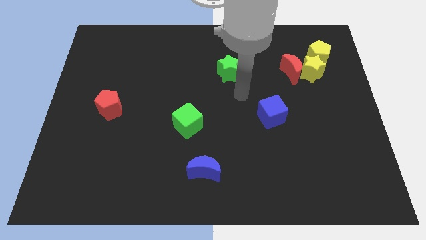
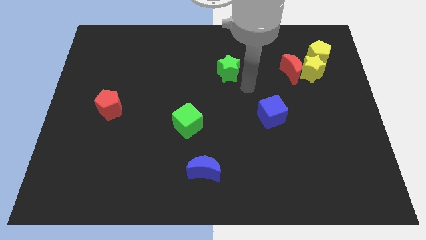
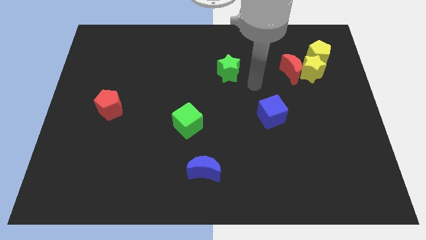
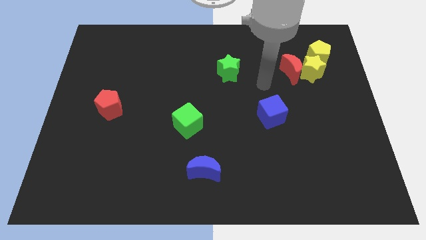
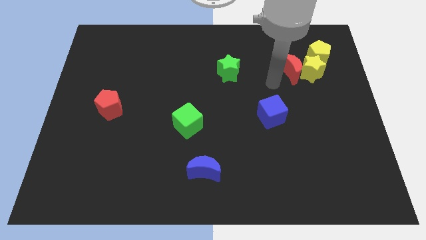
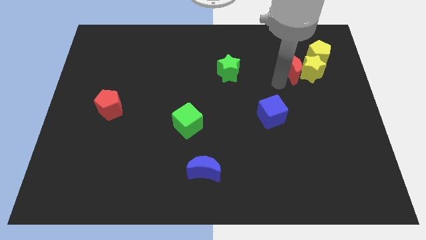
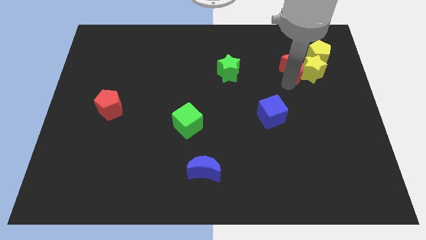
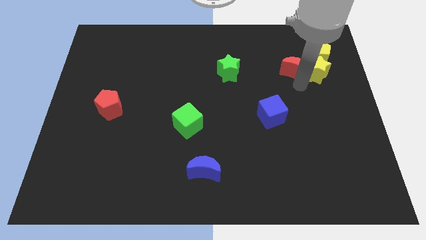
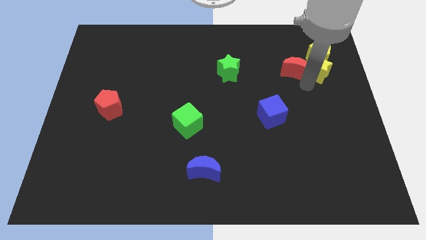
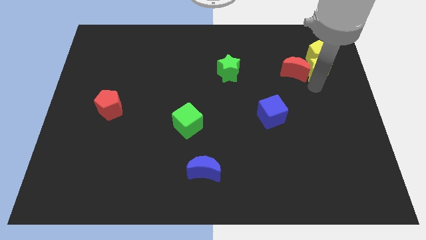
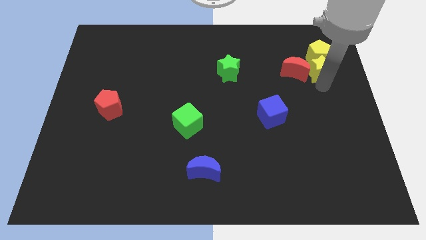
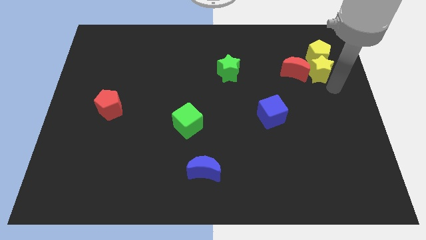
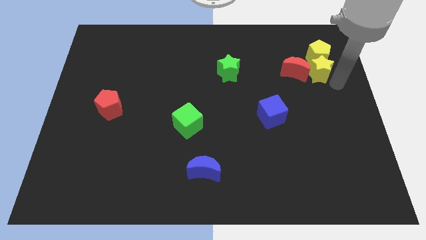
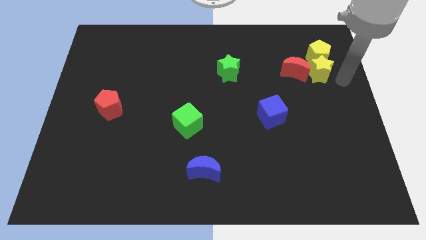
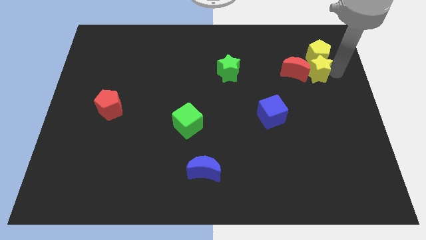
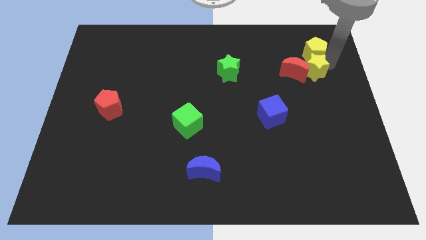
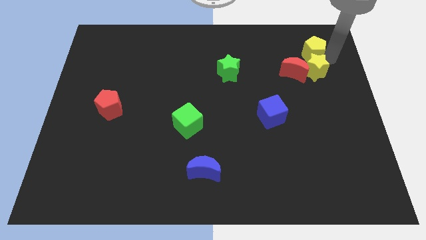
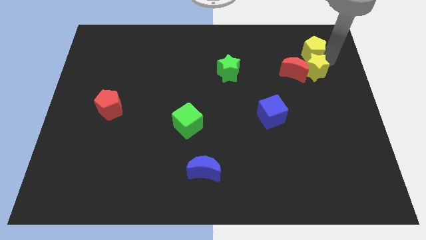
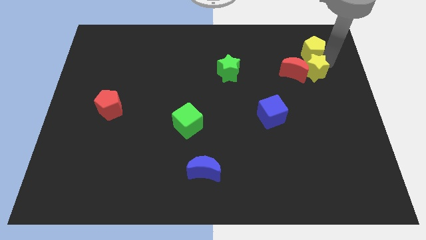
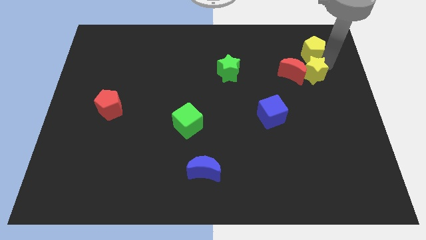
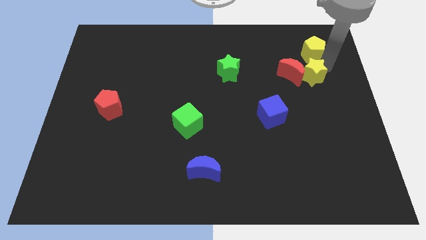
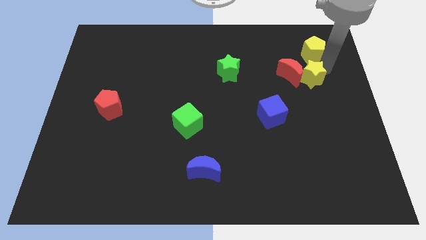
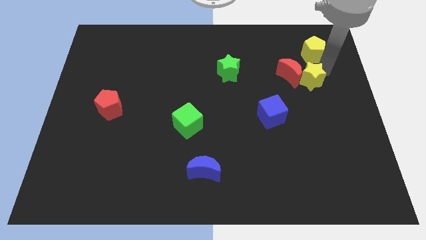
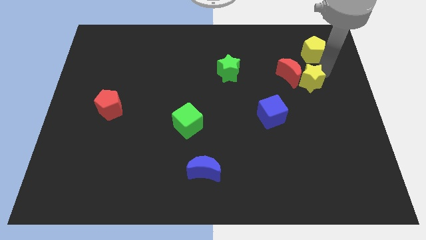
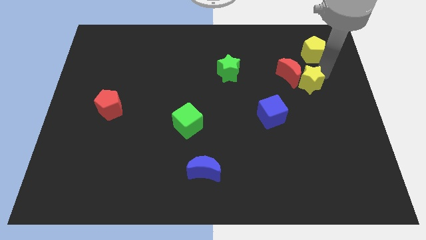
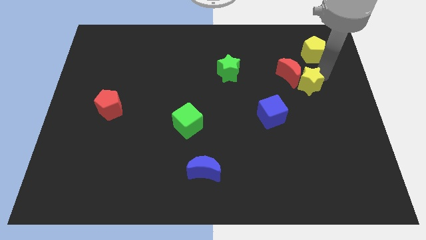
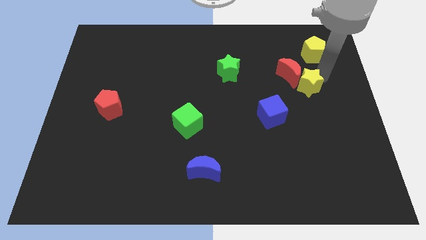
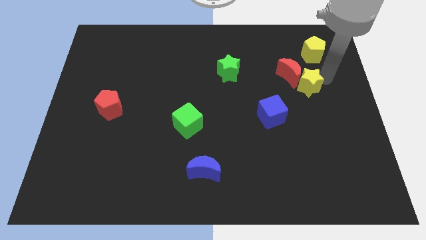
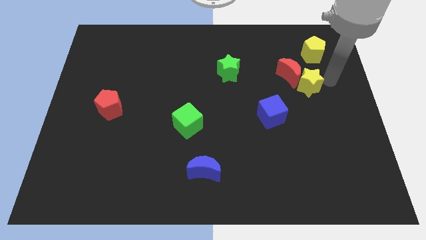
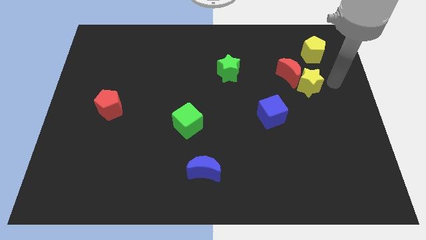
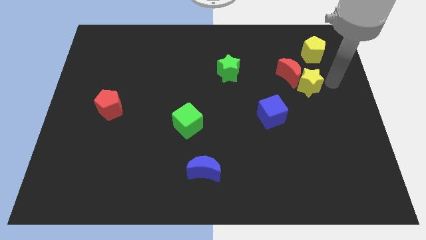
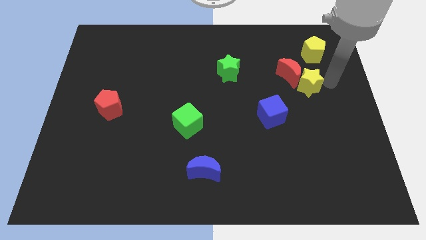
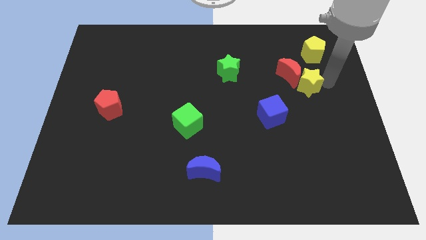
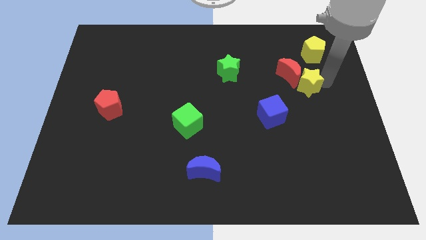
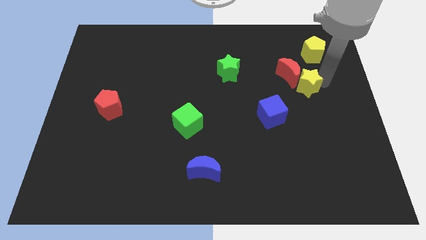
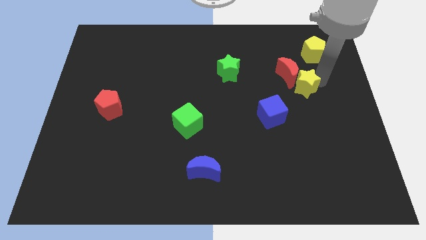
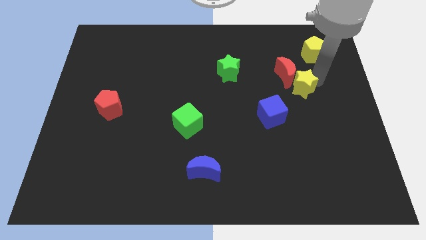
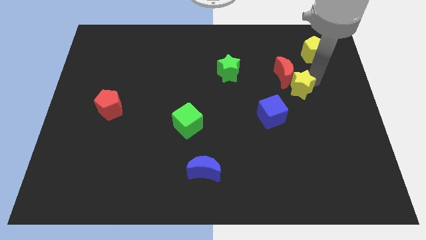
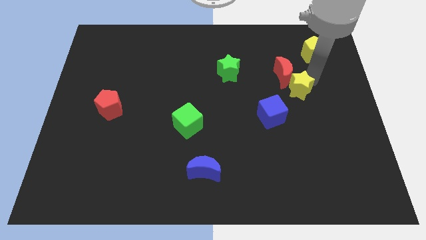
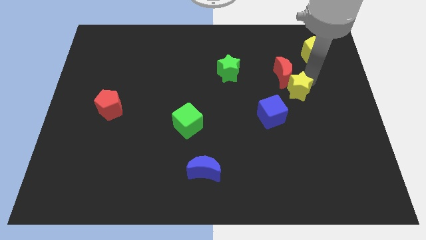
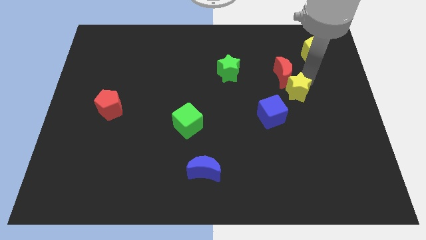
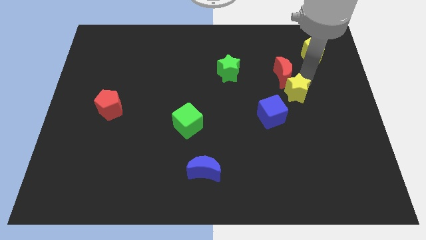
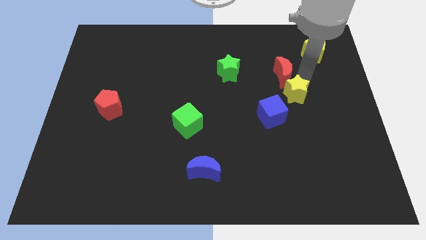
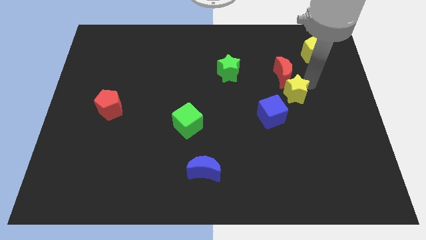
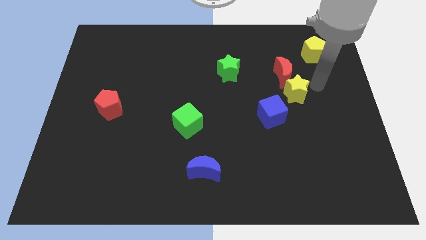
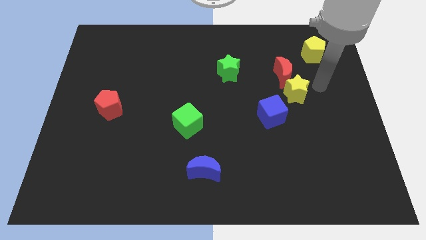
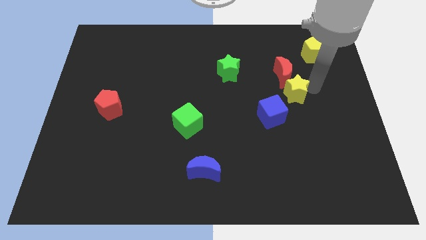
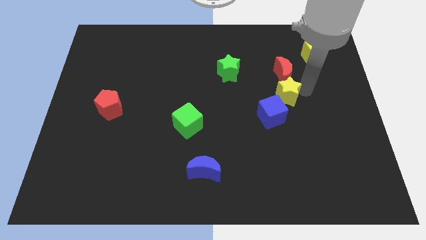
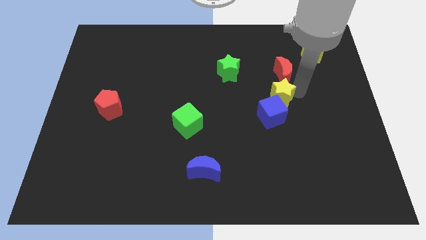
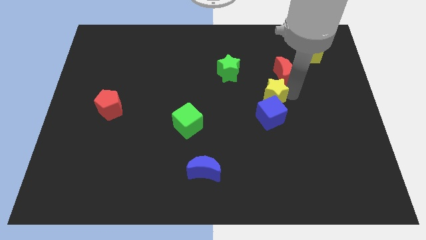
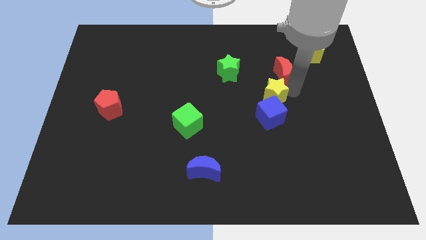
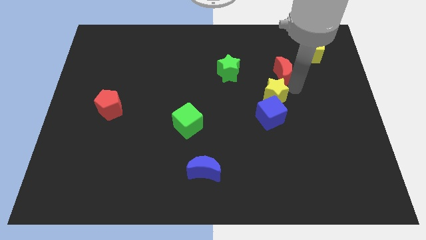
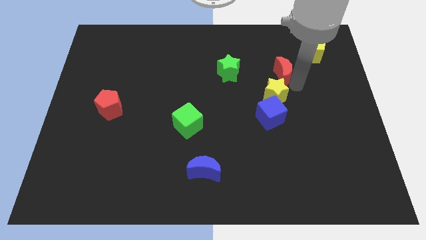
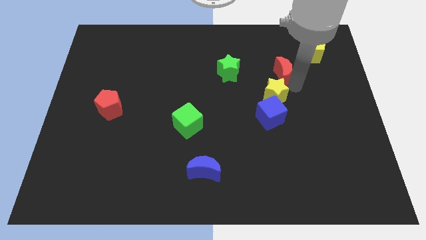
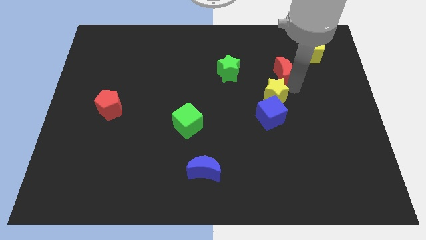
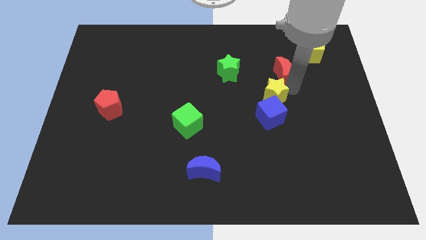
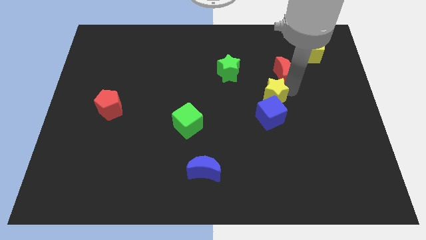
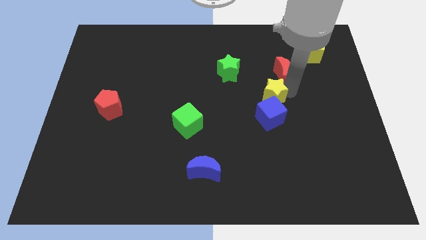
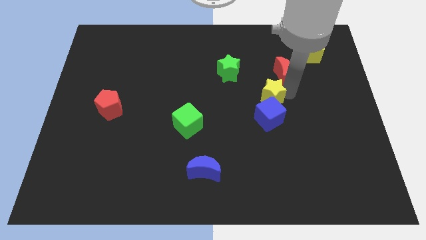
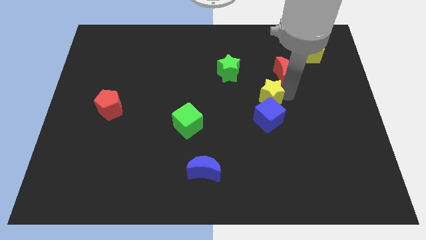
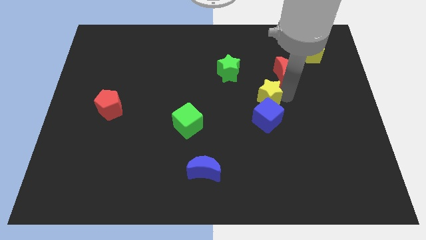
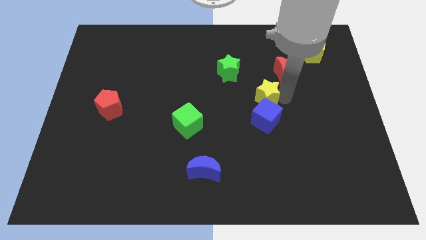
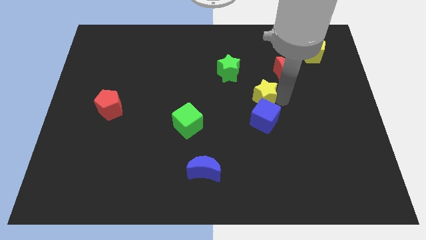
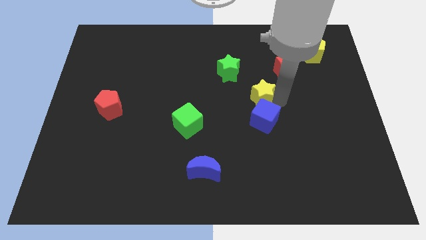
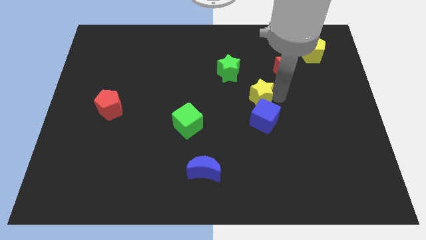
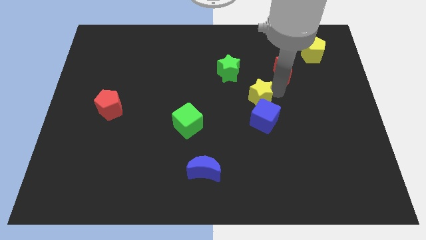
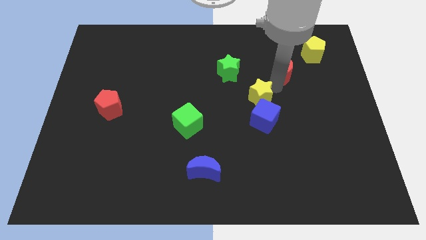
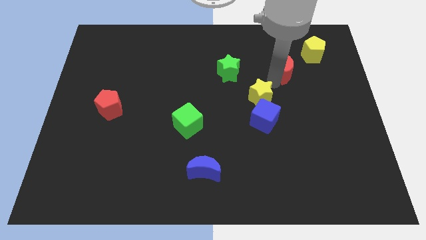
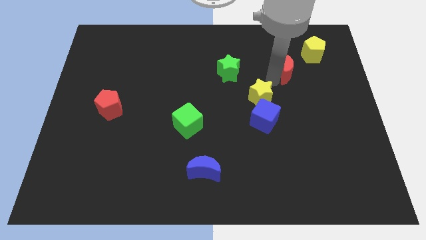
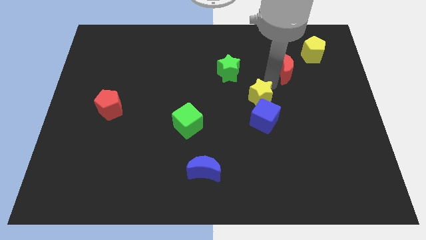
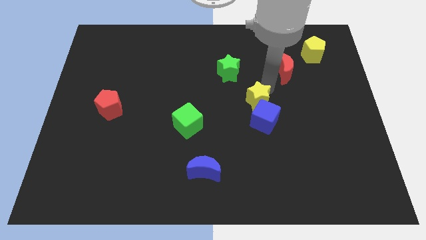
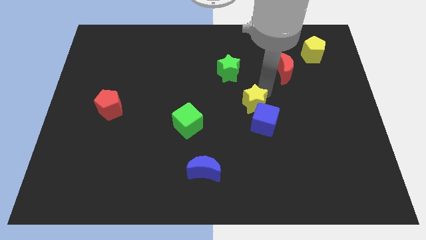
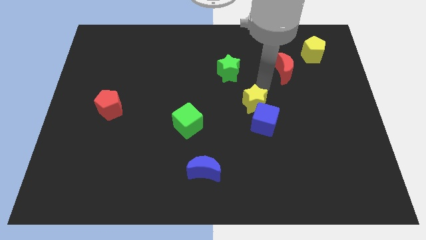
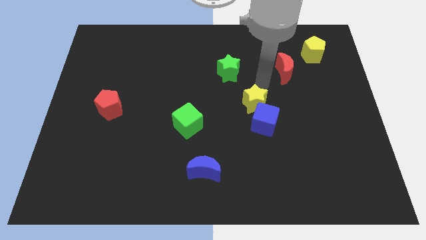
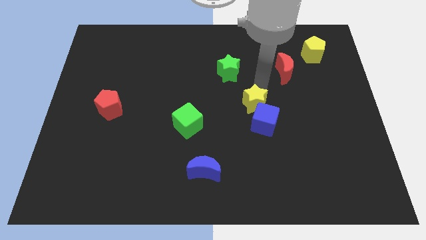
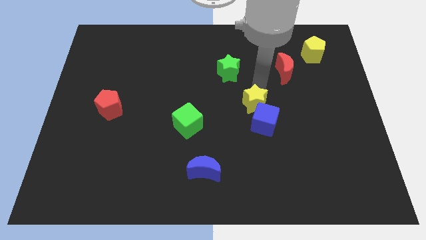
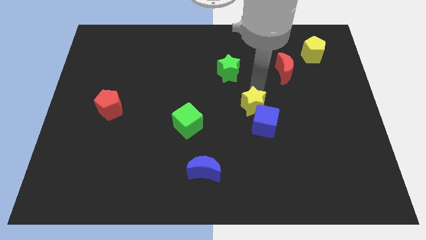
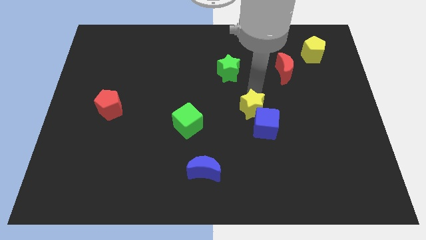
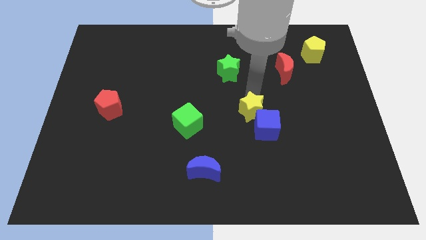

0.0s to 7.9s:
slide the yellow star down and left
